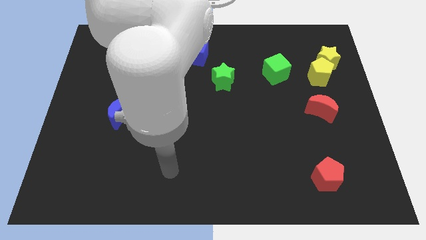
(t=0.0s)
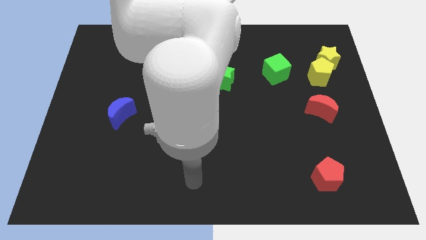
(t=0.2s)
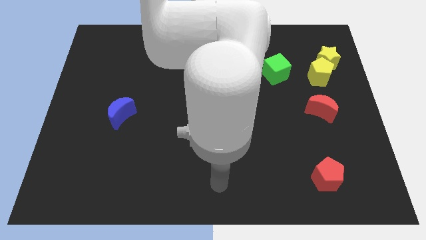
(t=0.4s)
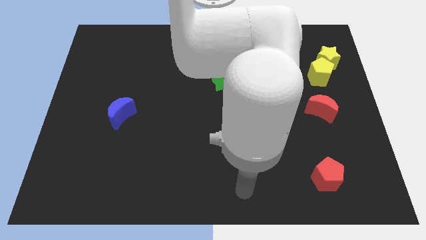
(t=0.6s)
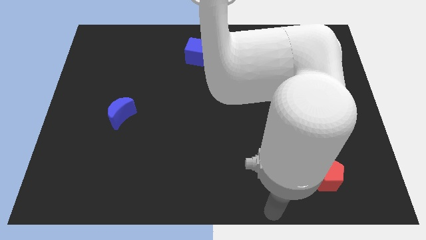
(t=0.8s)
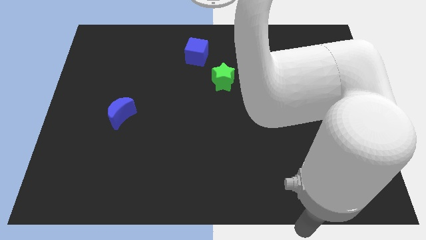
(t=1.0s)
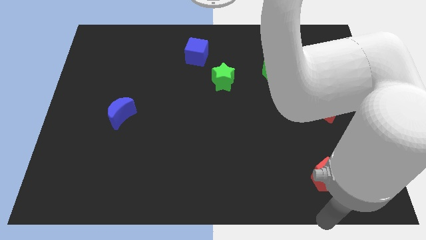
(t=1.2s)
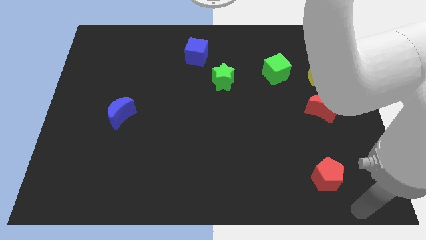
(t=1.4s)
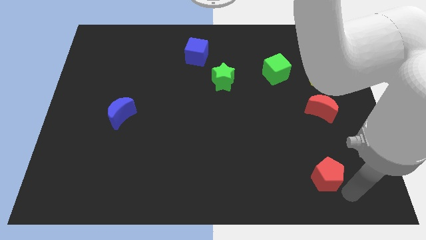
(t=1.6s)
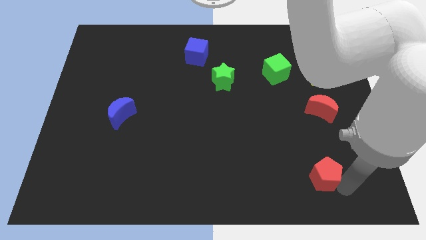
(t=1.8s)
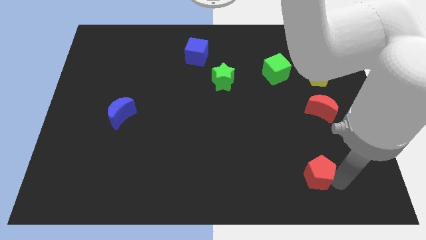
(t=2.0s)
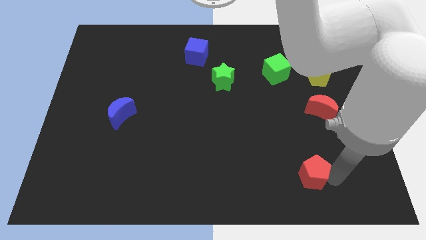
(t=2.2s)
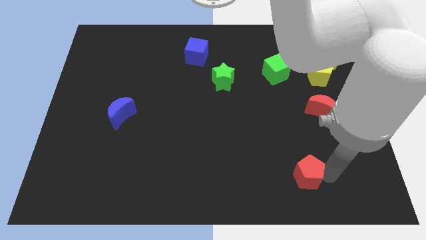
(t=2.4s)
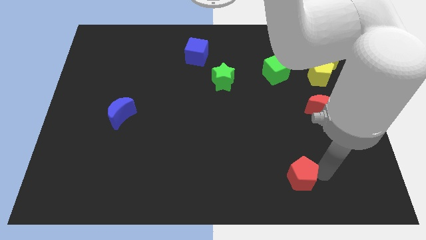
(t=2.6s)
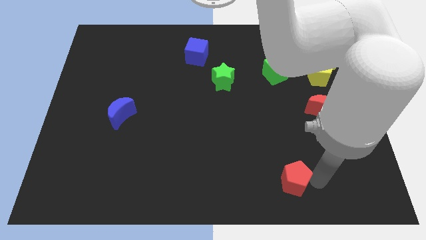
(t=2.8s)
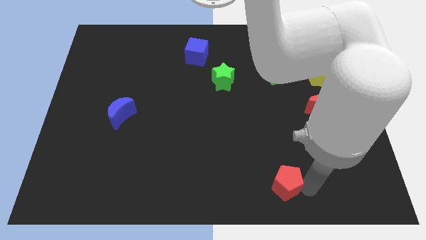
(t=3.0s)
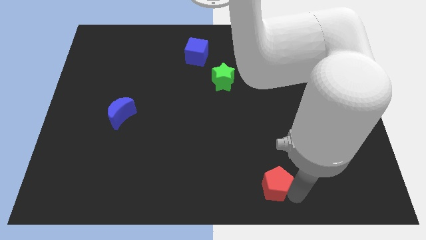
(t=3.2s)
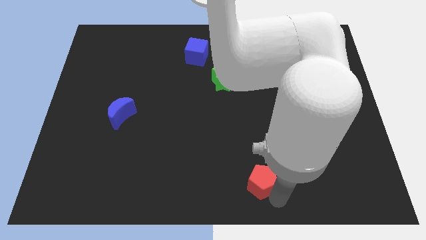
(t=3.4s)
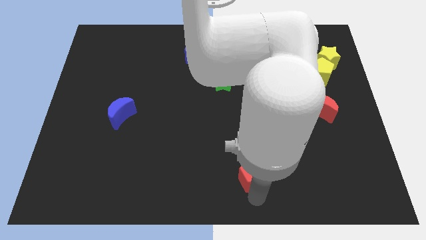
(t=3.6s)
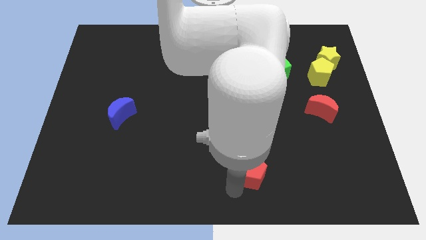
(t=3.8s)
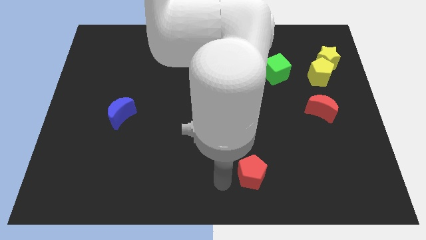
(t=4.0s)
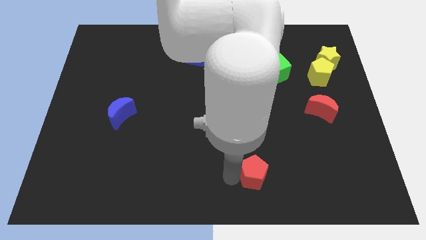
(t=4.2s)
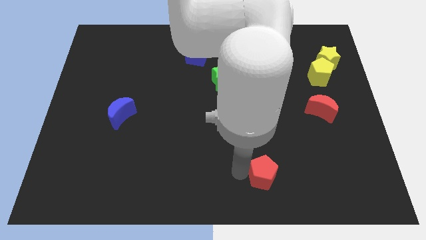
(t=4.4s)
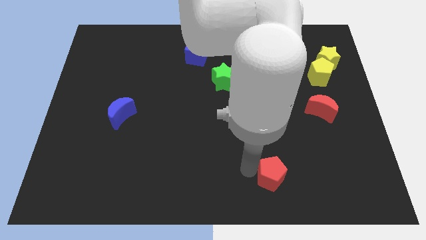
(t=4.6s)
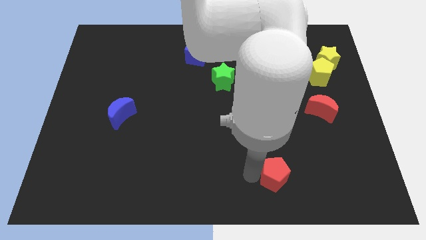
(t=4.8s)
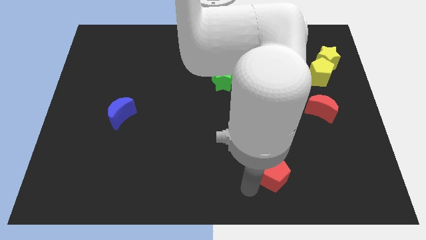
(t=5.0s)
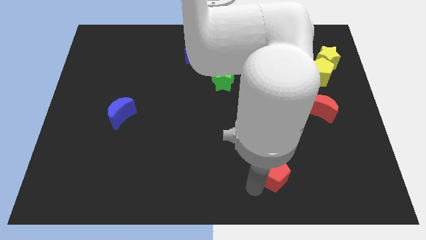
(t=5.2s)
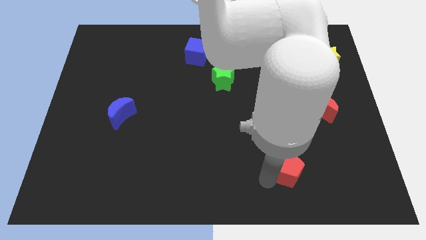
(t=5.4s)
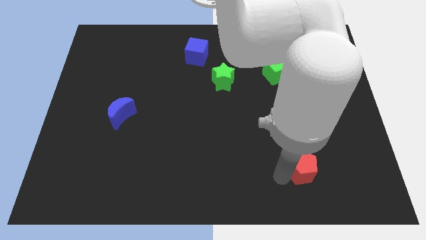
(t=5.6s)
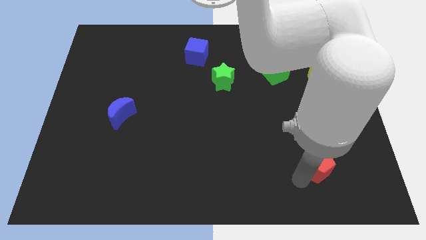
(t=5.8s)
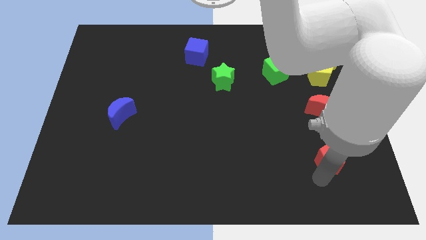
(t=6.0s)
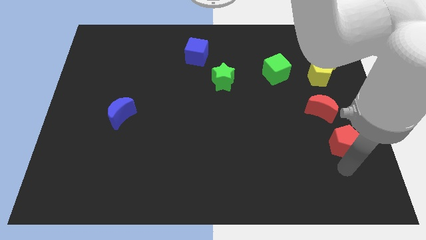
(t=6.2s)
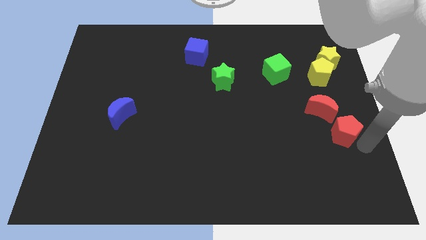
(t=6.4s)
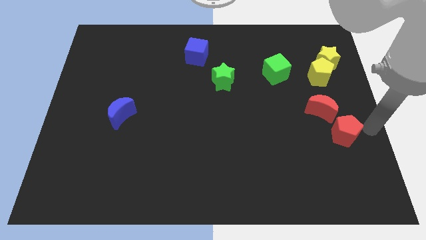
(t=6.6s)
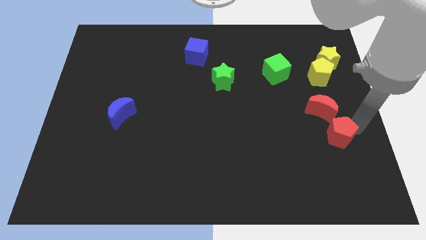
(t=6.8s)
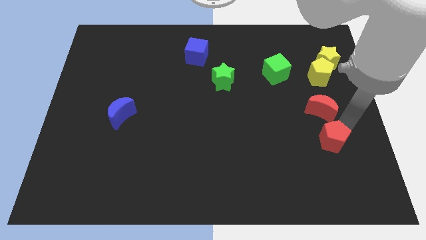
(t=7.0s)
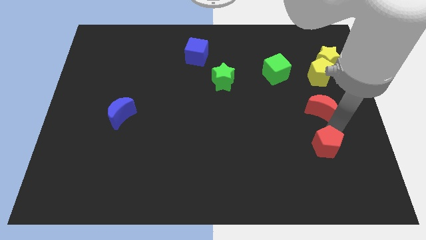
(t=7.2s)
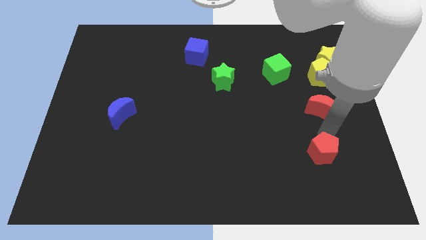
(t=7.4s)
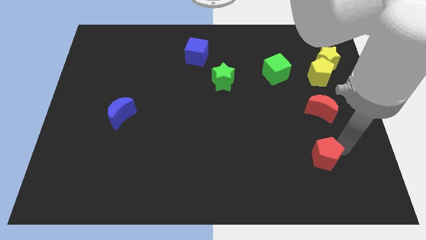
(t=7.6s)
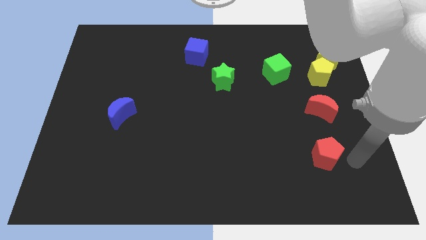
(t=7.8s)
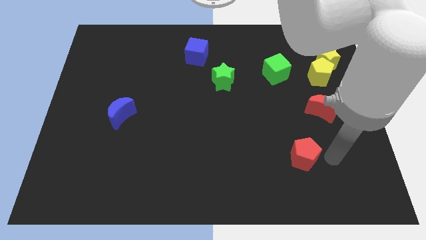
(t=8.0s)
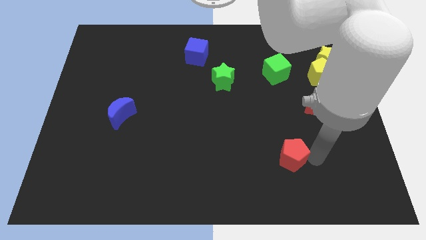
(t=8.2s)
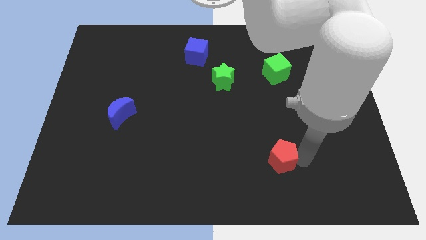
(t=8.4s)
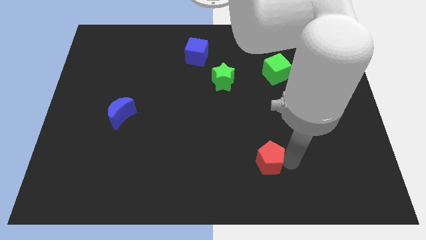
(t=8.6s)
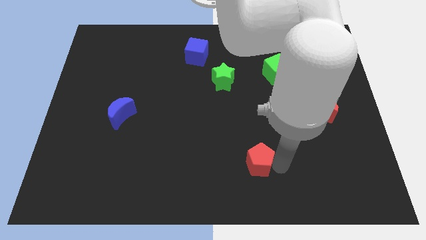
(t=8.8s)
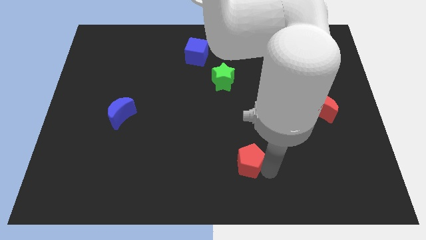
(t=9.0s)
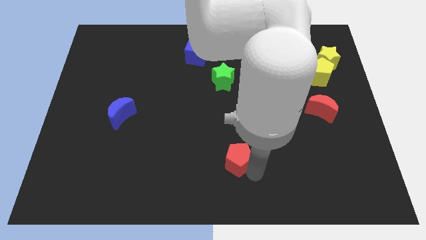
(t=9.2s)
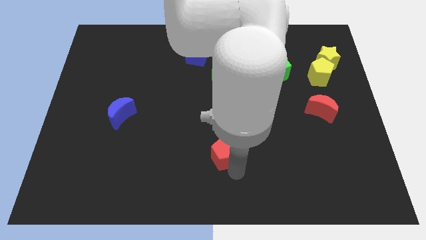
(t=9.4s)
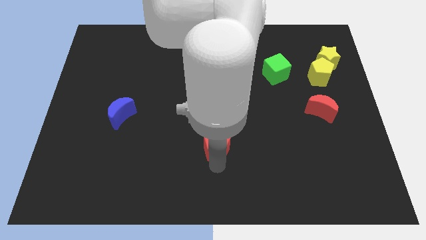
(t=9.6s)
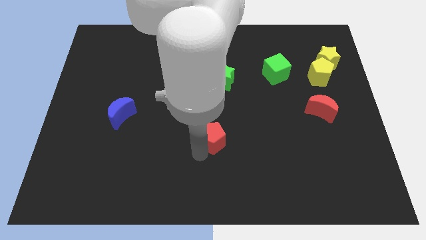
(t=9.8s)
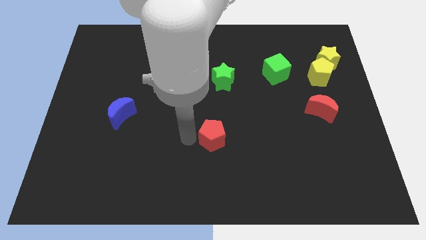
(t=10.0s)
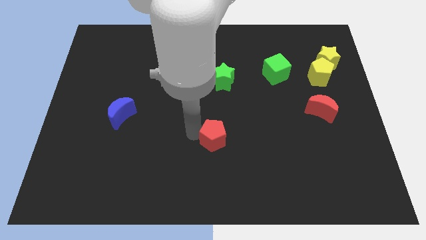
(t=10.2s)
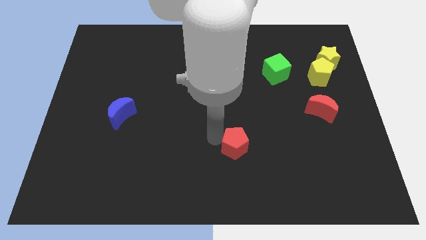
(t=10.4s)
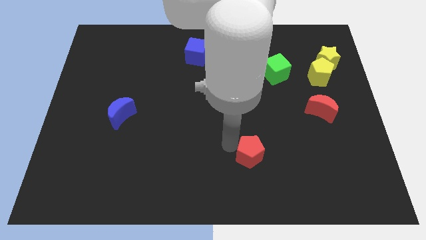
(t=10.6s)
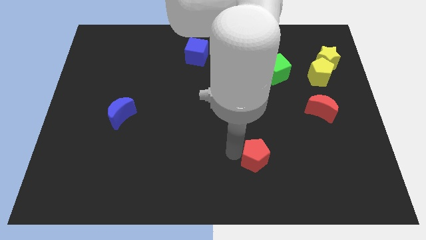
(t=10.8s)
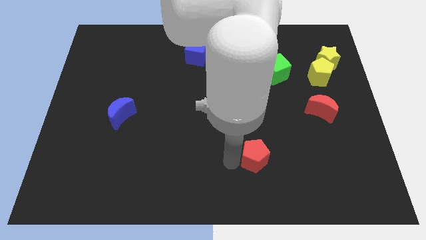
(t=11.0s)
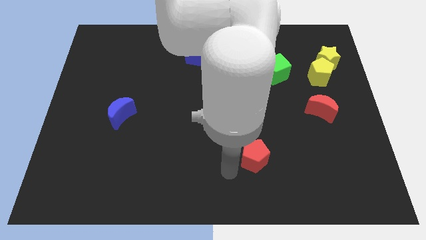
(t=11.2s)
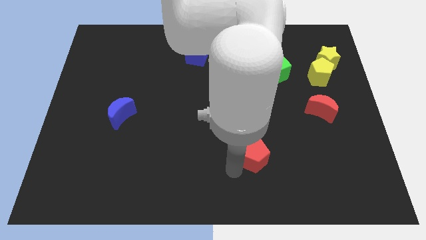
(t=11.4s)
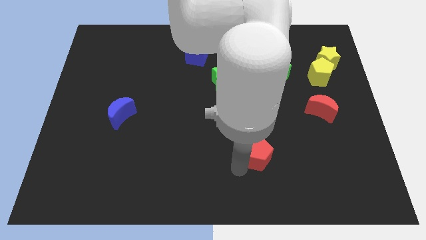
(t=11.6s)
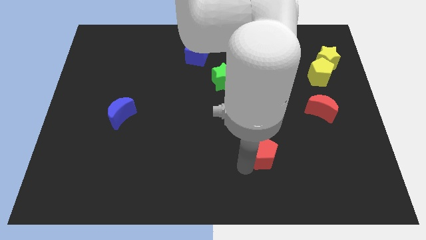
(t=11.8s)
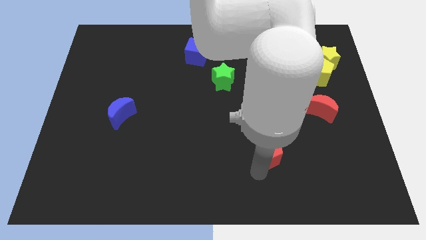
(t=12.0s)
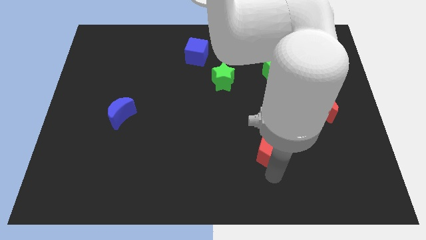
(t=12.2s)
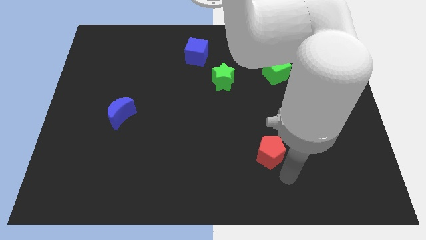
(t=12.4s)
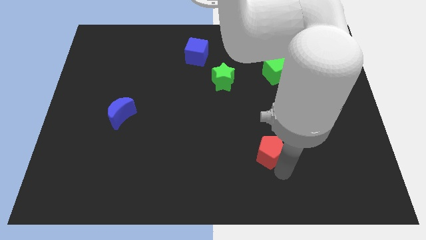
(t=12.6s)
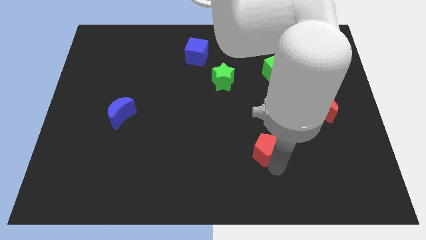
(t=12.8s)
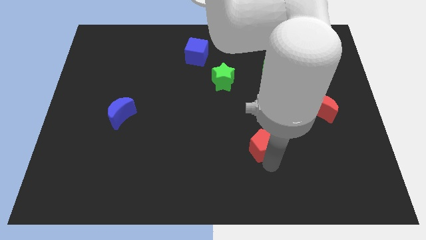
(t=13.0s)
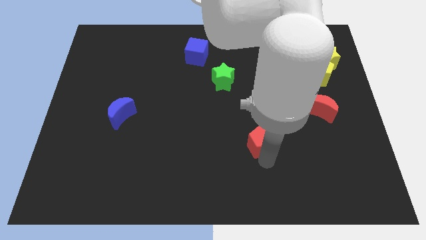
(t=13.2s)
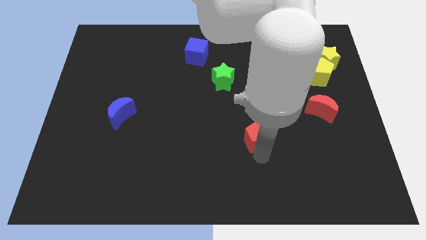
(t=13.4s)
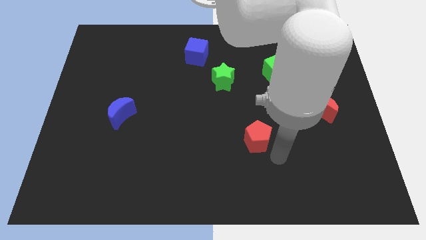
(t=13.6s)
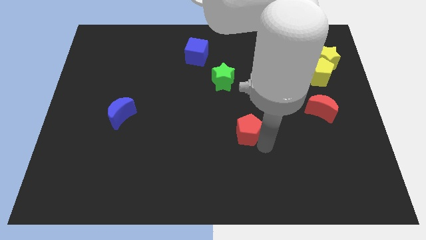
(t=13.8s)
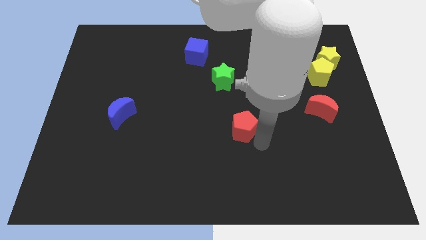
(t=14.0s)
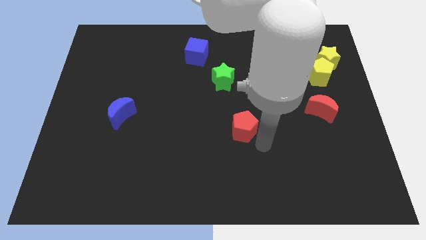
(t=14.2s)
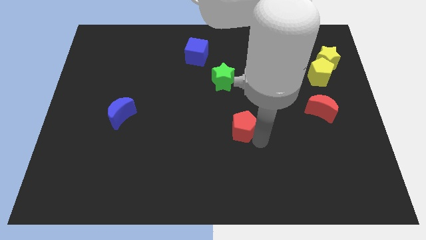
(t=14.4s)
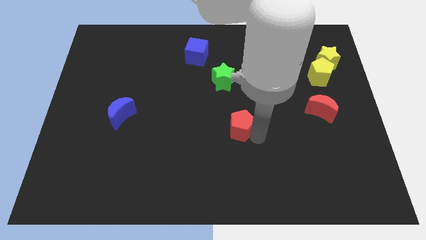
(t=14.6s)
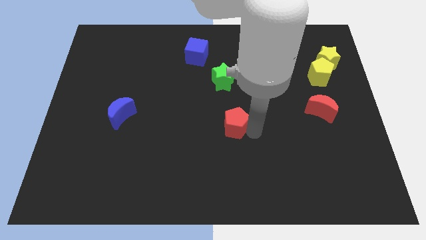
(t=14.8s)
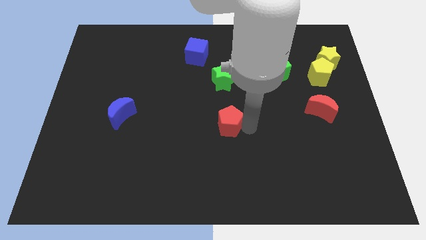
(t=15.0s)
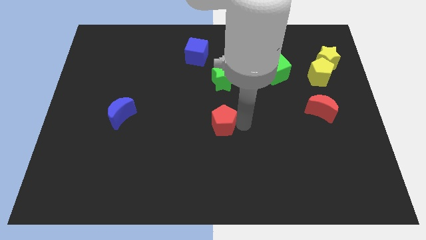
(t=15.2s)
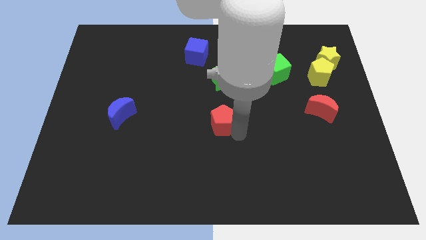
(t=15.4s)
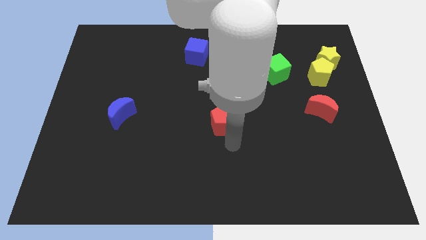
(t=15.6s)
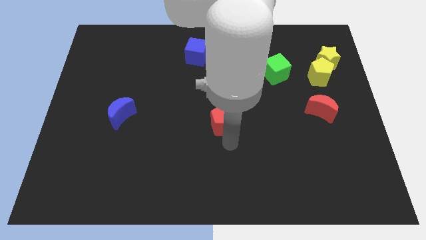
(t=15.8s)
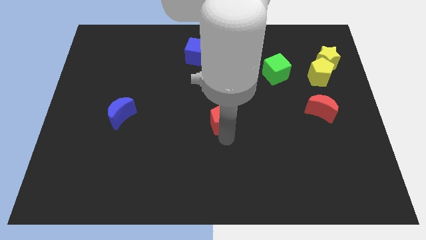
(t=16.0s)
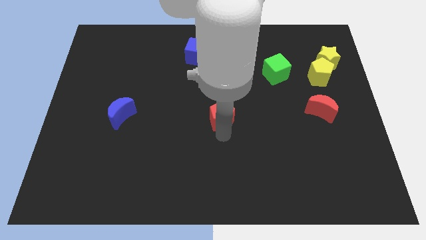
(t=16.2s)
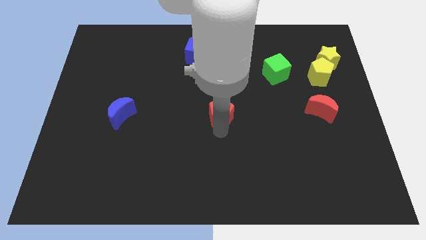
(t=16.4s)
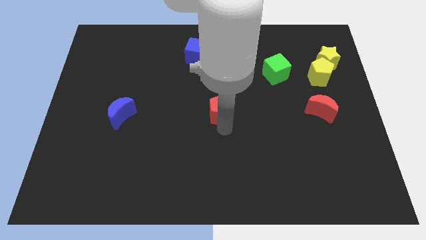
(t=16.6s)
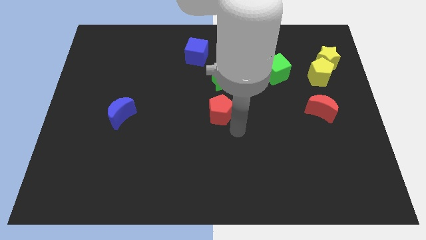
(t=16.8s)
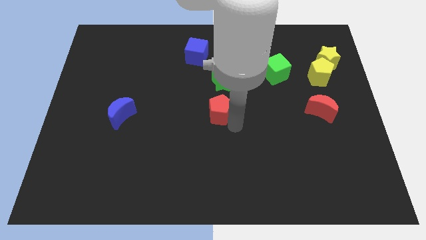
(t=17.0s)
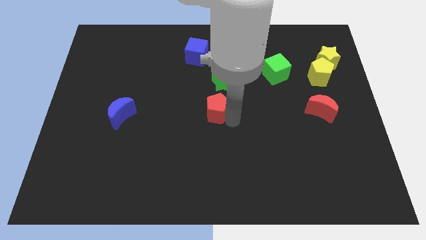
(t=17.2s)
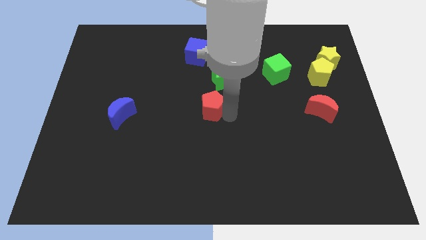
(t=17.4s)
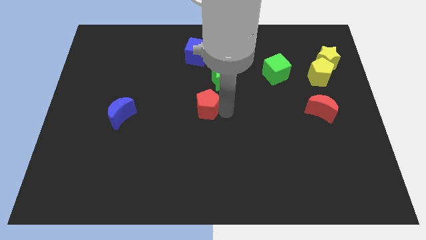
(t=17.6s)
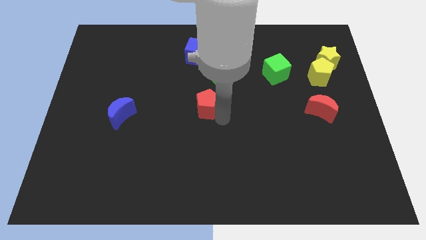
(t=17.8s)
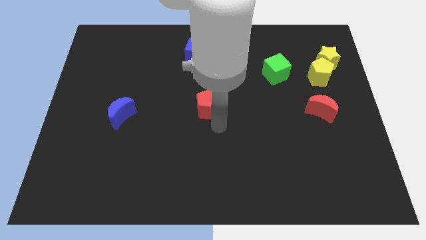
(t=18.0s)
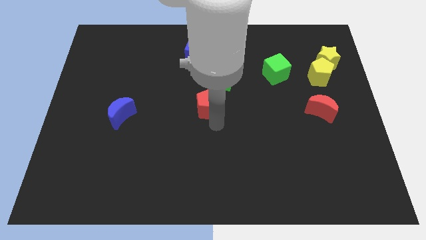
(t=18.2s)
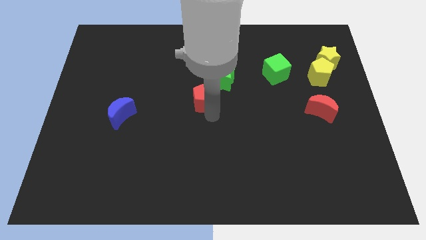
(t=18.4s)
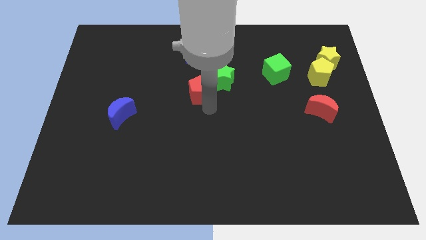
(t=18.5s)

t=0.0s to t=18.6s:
put the red pentagon just left of the green star
